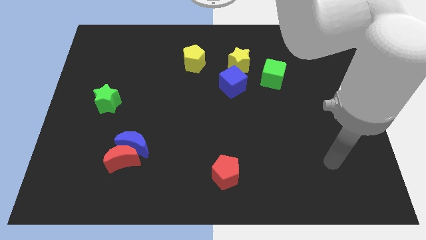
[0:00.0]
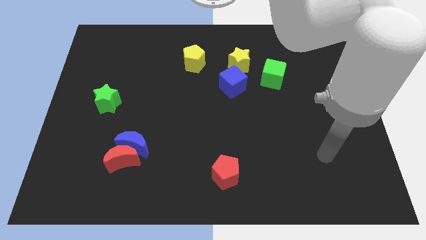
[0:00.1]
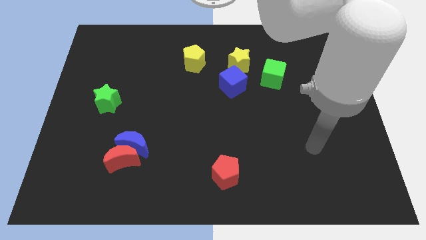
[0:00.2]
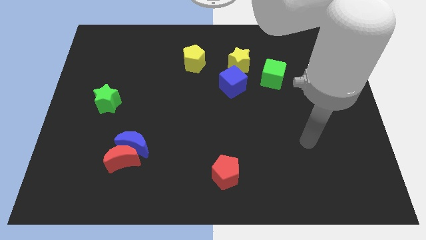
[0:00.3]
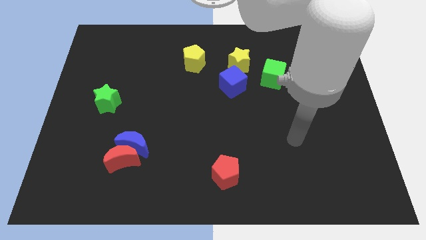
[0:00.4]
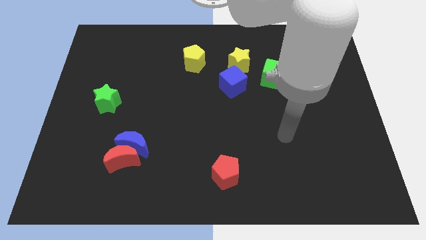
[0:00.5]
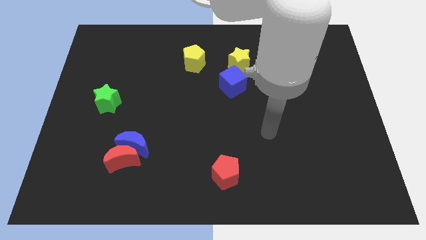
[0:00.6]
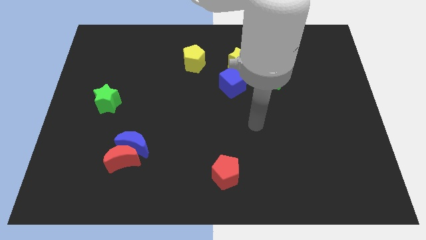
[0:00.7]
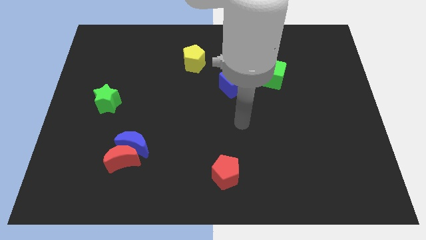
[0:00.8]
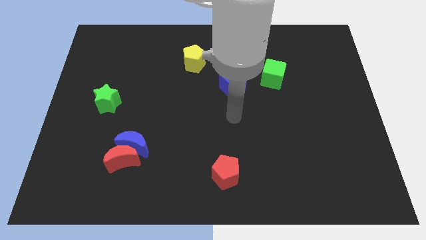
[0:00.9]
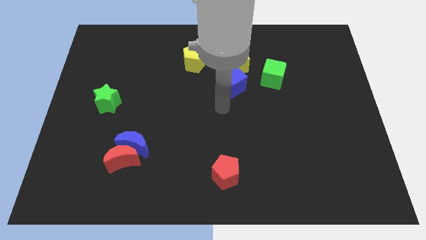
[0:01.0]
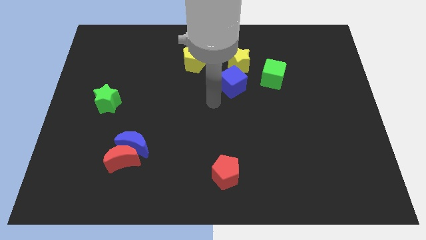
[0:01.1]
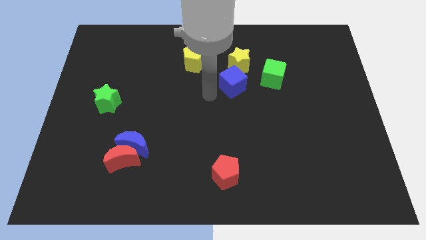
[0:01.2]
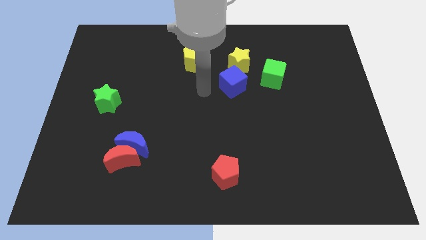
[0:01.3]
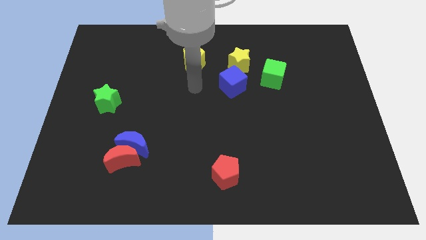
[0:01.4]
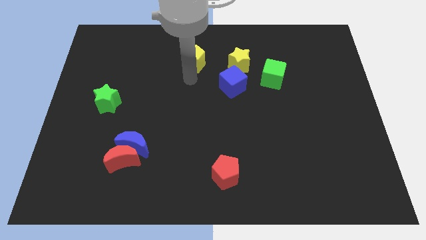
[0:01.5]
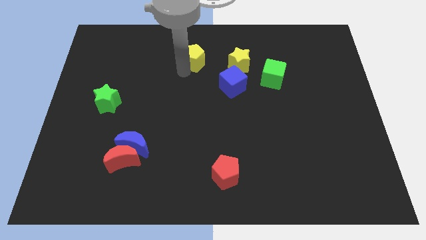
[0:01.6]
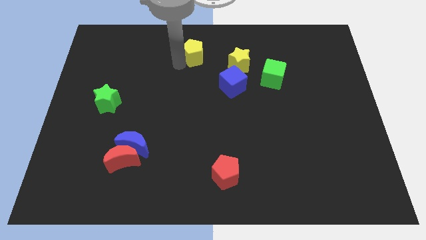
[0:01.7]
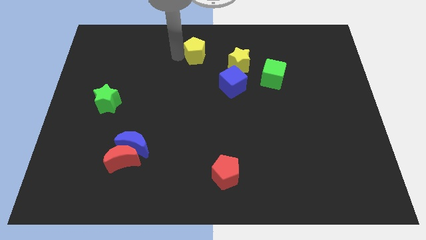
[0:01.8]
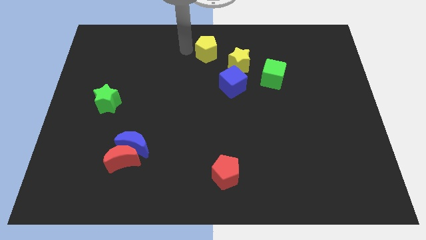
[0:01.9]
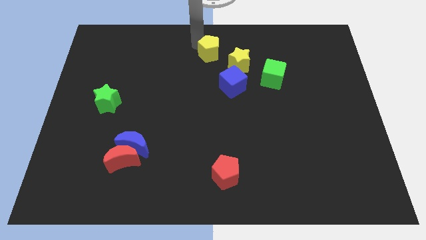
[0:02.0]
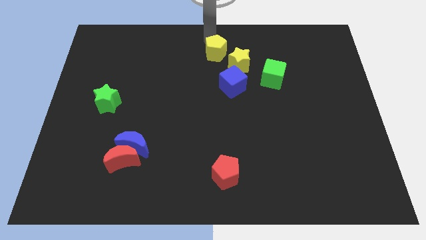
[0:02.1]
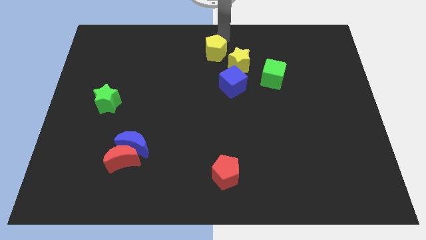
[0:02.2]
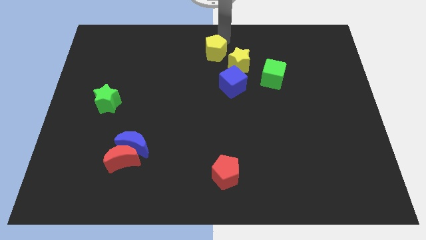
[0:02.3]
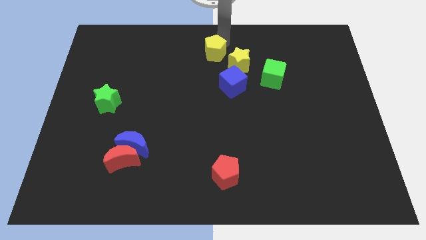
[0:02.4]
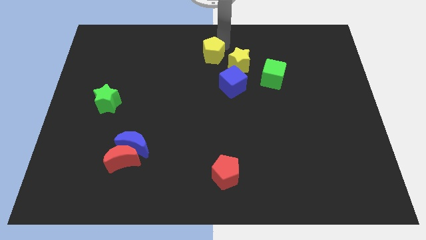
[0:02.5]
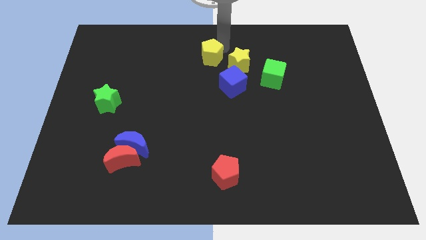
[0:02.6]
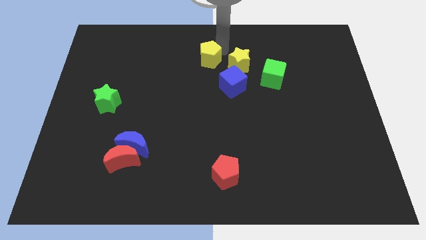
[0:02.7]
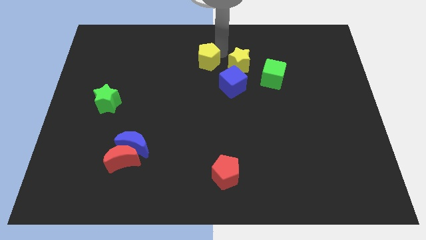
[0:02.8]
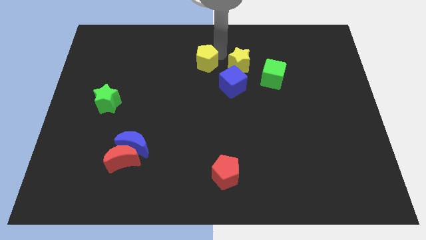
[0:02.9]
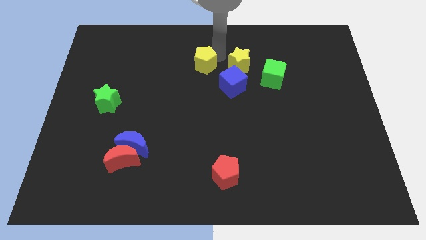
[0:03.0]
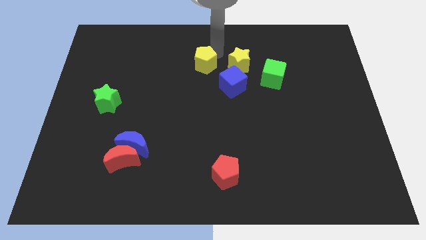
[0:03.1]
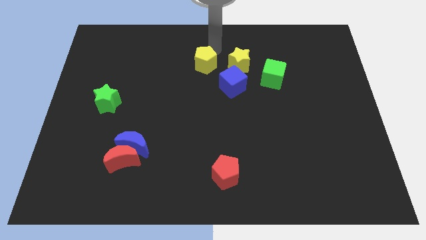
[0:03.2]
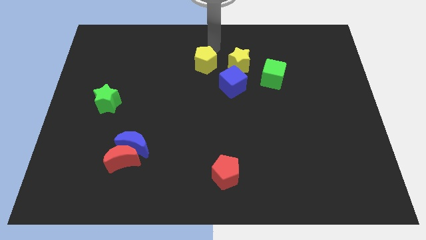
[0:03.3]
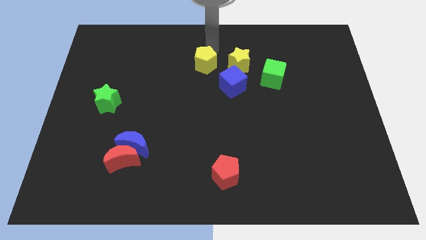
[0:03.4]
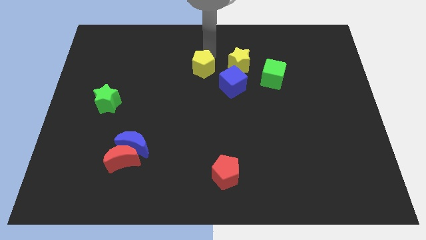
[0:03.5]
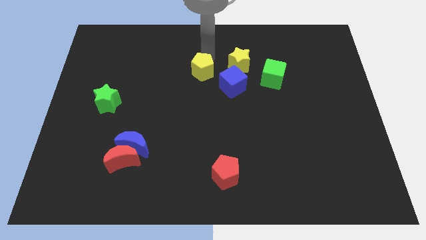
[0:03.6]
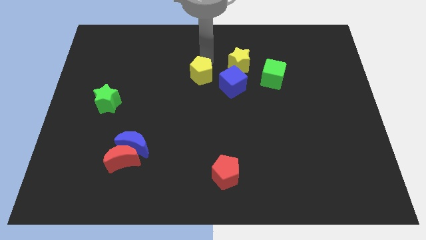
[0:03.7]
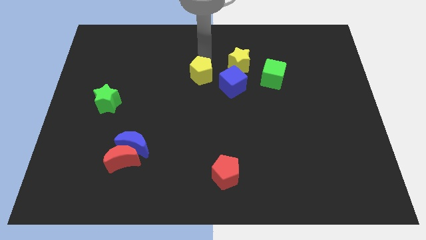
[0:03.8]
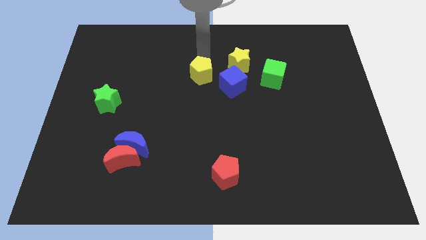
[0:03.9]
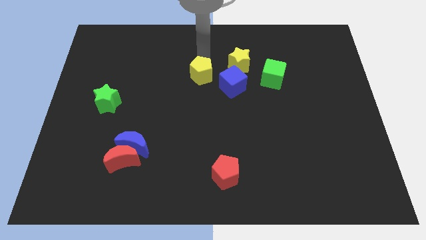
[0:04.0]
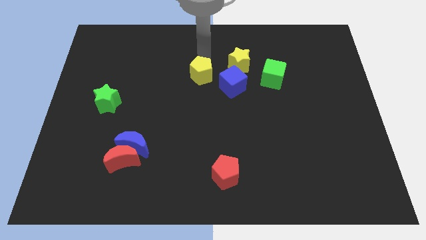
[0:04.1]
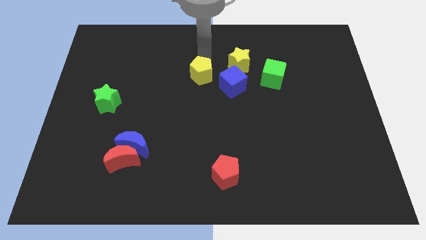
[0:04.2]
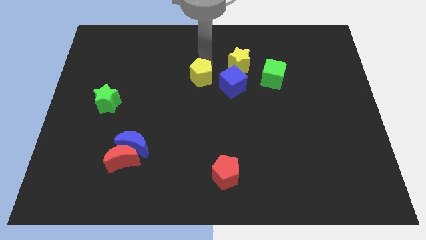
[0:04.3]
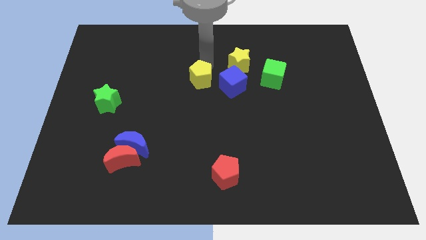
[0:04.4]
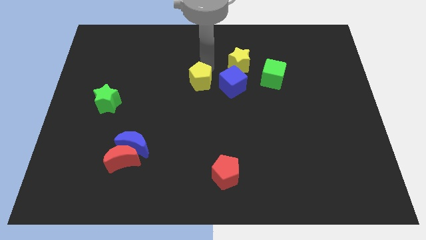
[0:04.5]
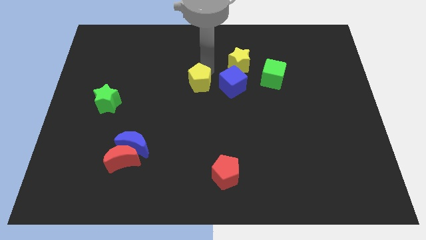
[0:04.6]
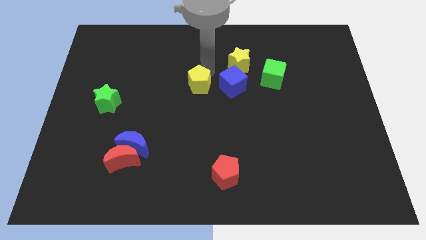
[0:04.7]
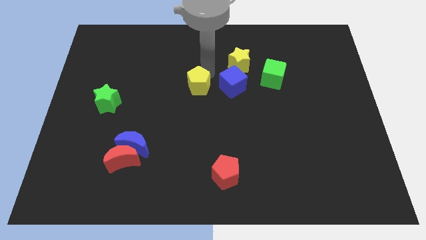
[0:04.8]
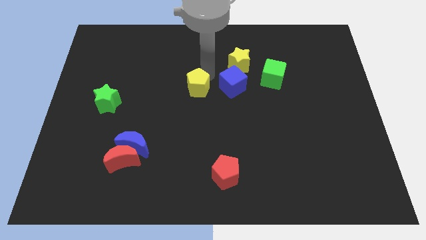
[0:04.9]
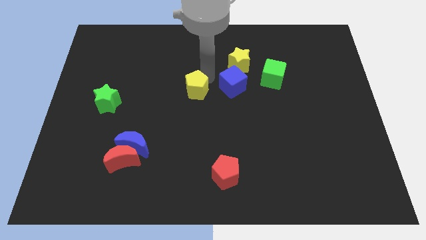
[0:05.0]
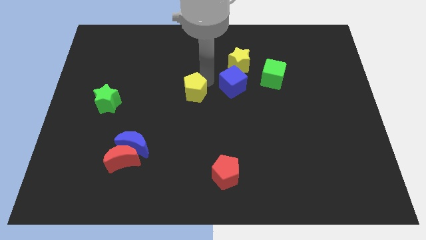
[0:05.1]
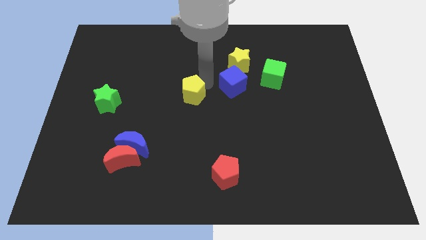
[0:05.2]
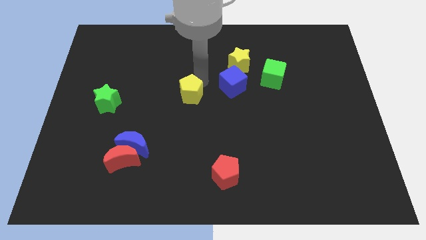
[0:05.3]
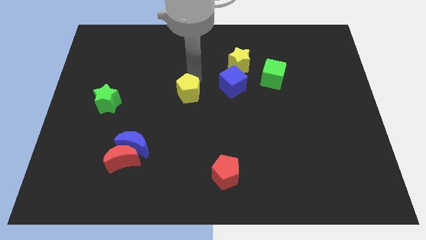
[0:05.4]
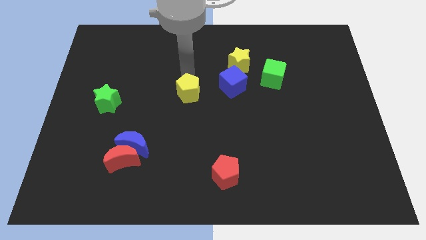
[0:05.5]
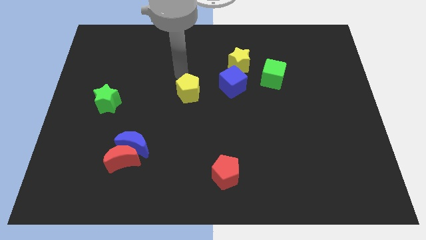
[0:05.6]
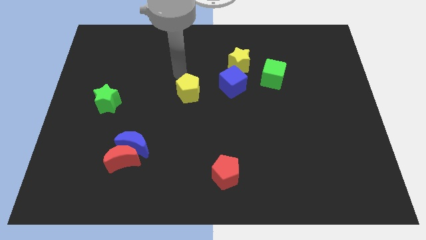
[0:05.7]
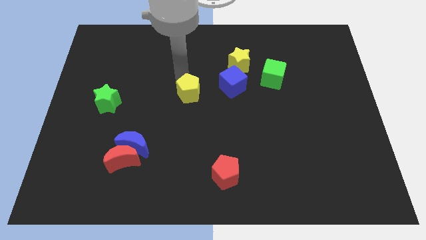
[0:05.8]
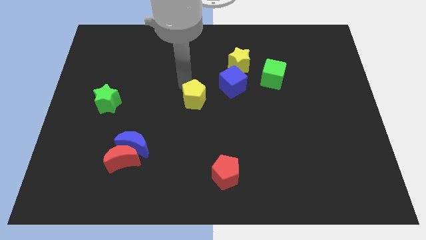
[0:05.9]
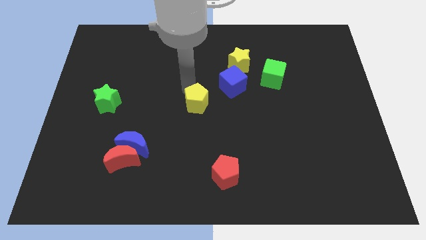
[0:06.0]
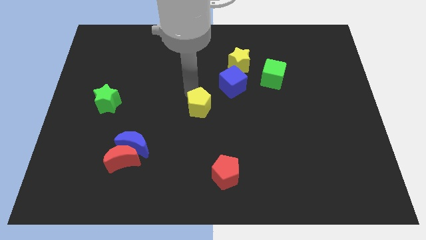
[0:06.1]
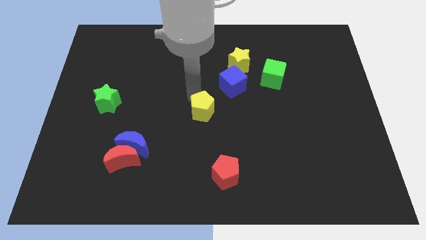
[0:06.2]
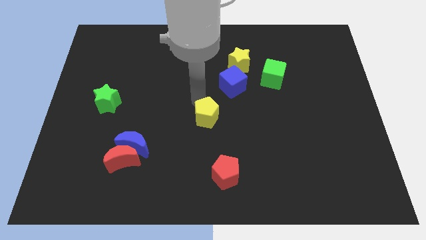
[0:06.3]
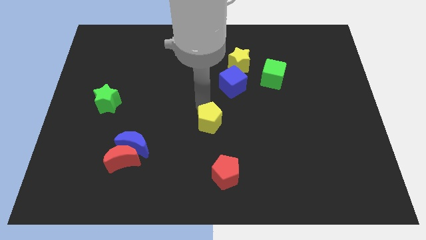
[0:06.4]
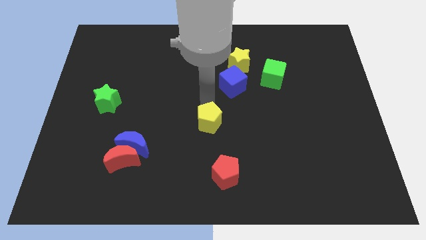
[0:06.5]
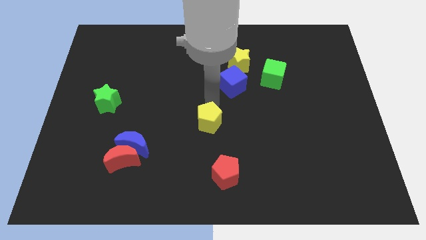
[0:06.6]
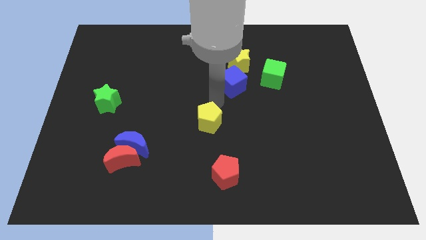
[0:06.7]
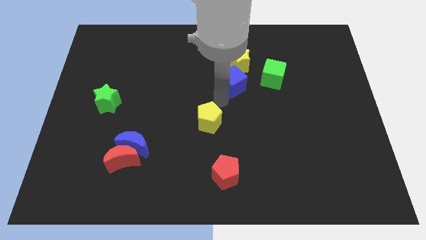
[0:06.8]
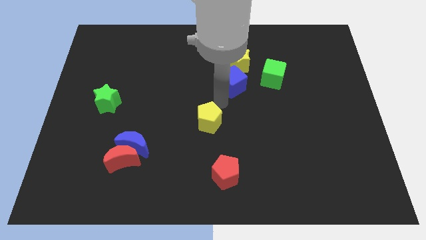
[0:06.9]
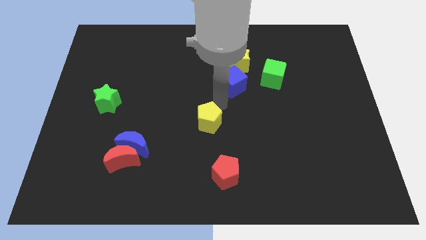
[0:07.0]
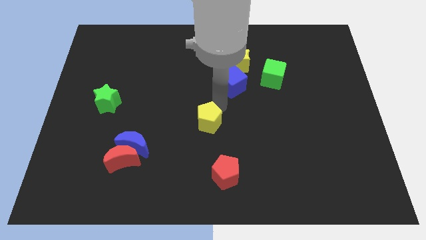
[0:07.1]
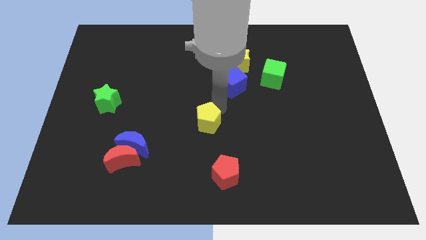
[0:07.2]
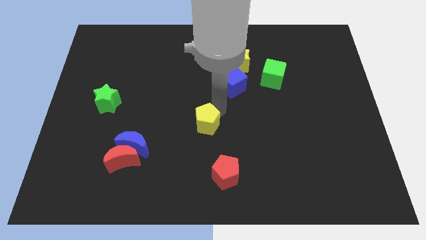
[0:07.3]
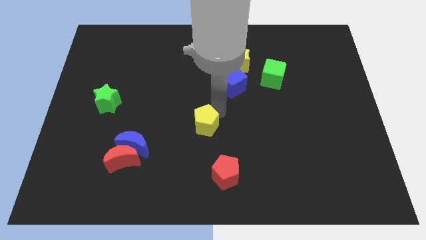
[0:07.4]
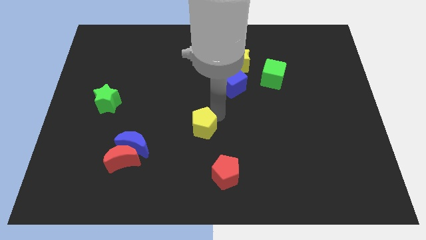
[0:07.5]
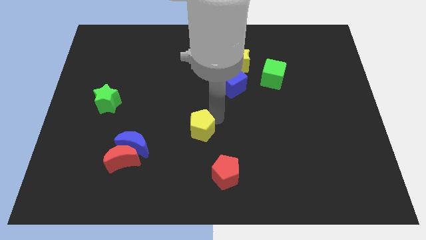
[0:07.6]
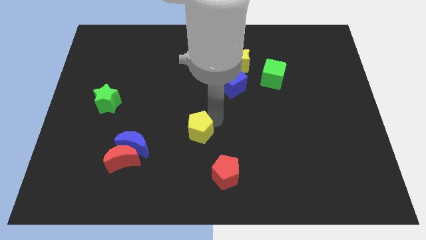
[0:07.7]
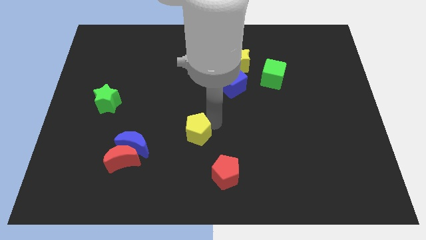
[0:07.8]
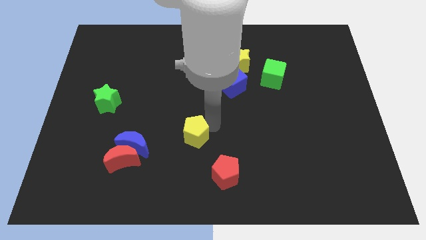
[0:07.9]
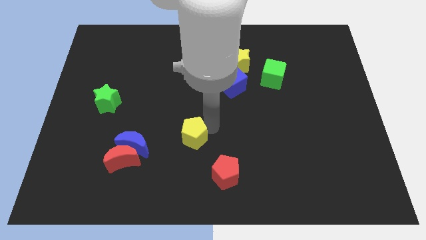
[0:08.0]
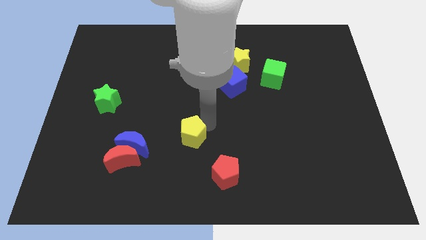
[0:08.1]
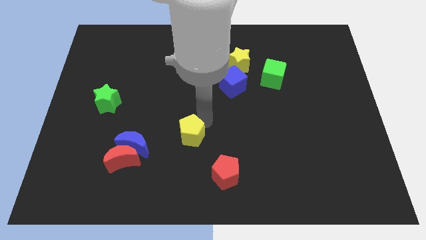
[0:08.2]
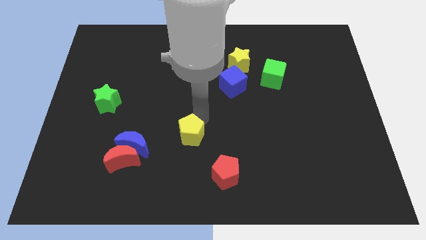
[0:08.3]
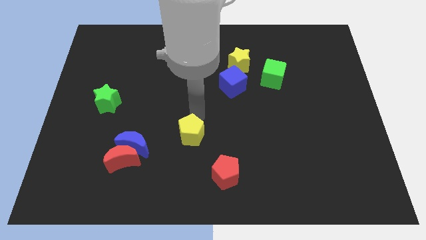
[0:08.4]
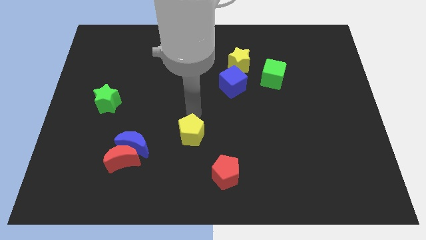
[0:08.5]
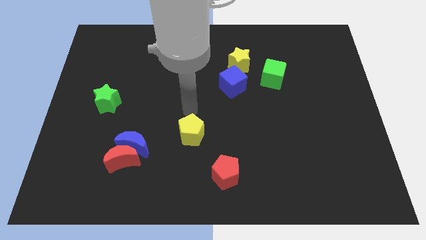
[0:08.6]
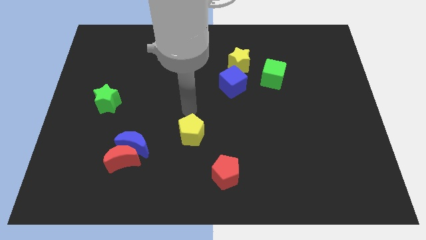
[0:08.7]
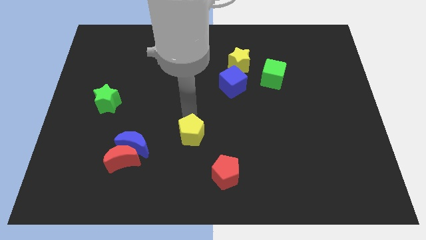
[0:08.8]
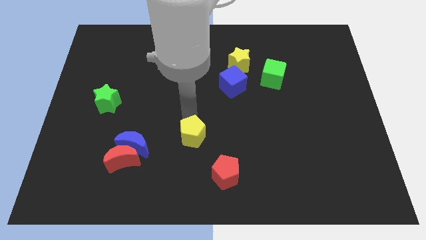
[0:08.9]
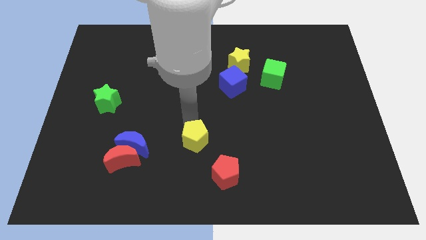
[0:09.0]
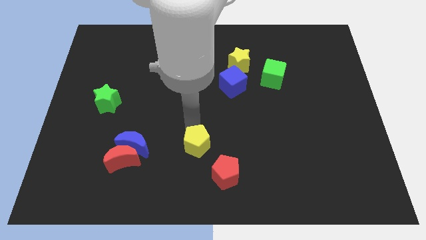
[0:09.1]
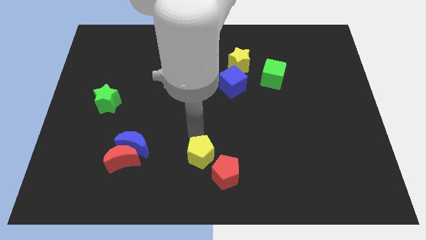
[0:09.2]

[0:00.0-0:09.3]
push the yellow pentagon to the bottom
